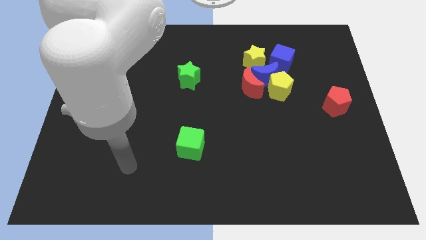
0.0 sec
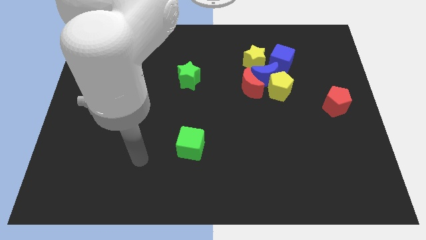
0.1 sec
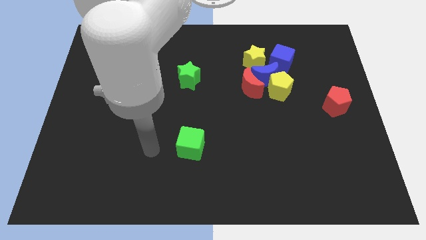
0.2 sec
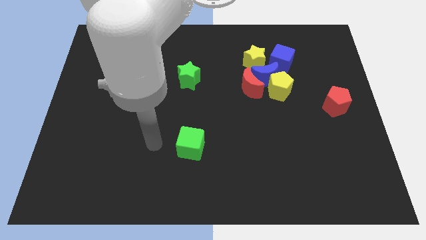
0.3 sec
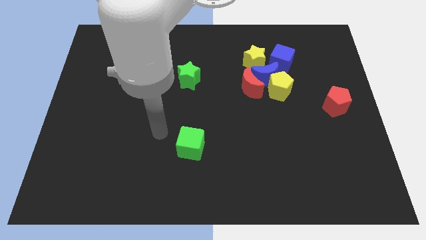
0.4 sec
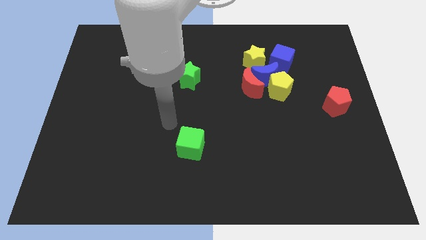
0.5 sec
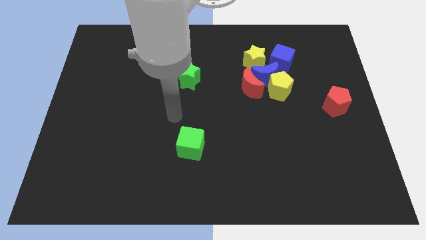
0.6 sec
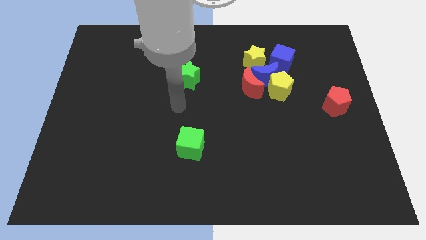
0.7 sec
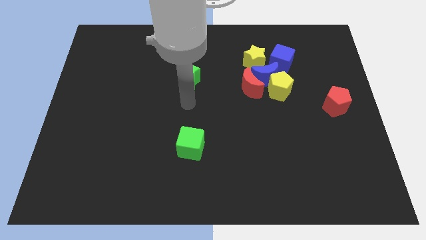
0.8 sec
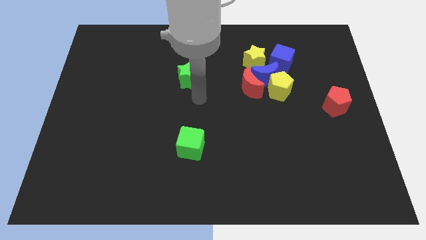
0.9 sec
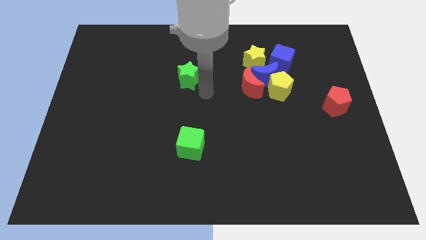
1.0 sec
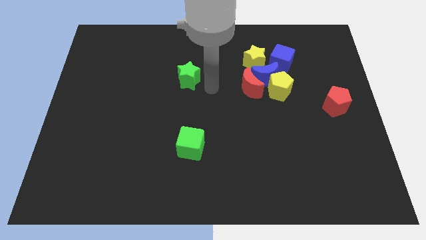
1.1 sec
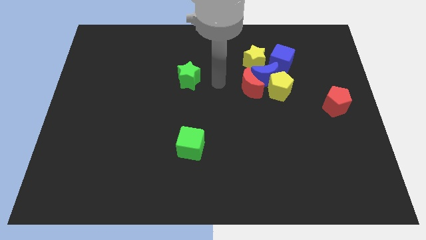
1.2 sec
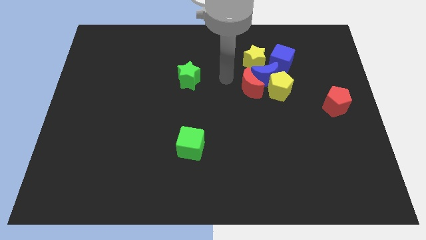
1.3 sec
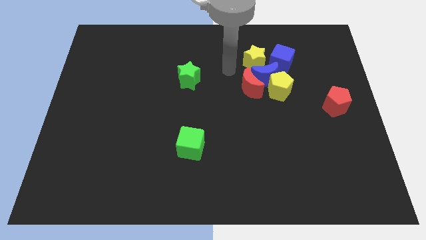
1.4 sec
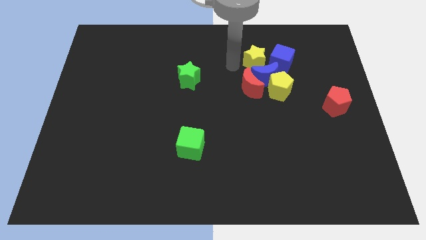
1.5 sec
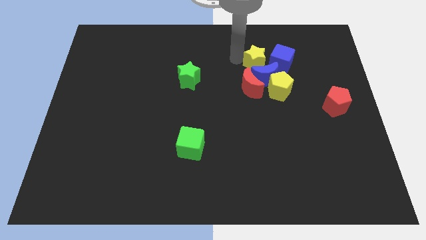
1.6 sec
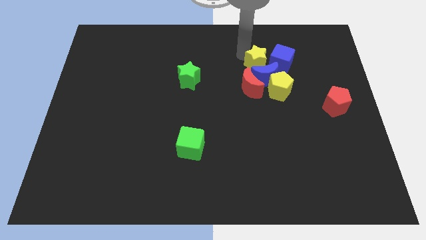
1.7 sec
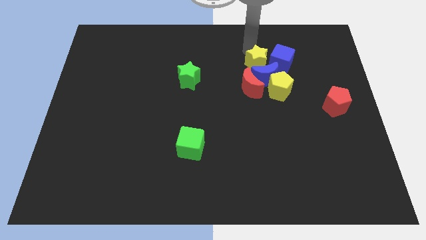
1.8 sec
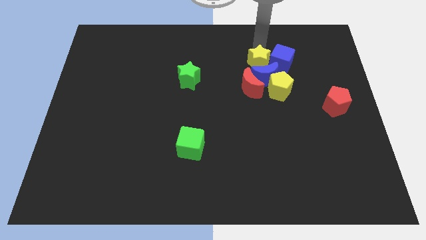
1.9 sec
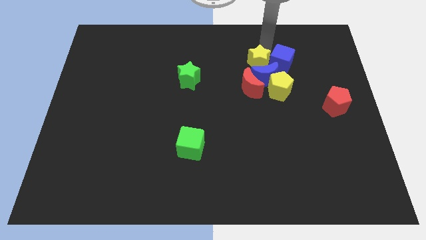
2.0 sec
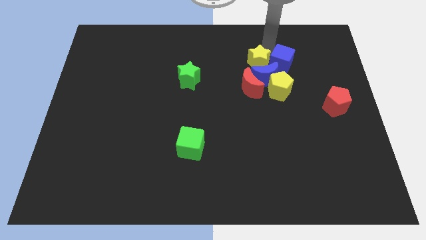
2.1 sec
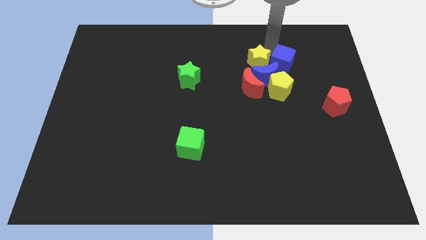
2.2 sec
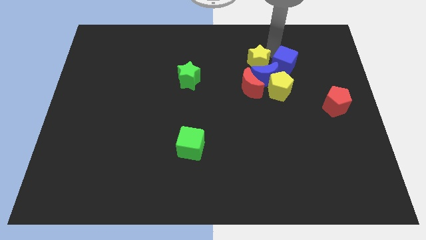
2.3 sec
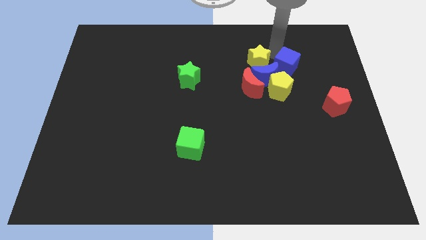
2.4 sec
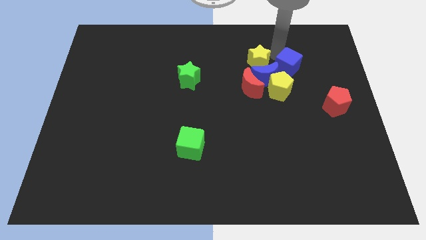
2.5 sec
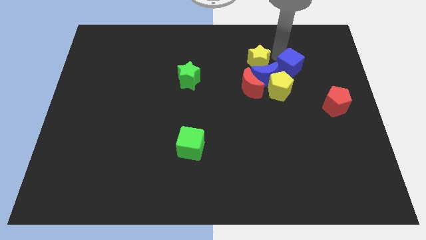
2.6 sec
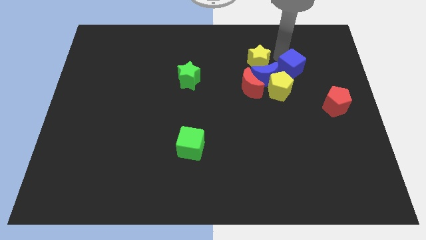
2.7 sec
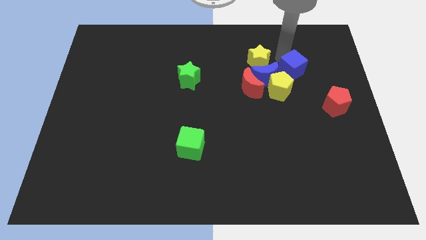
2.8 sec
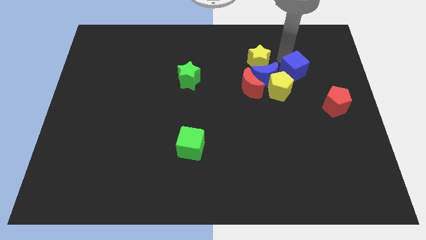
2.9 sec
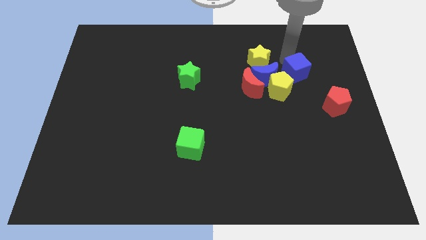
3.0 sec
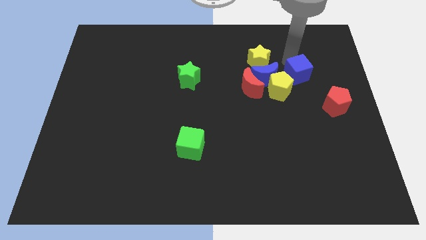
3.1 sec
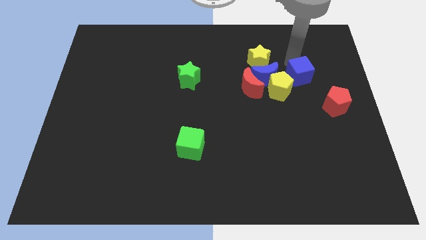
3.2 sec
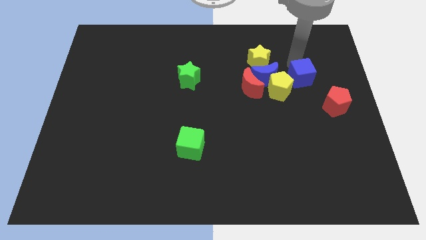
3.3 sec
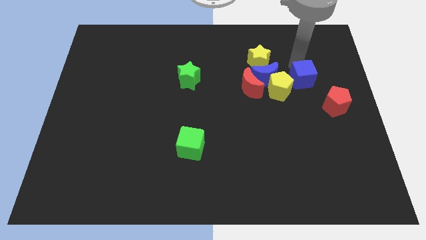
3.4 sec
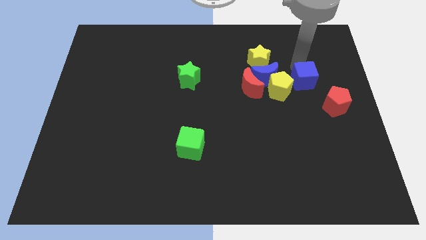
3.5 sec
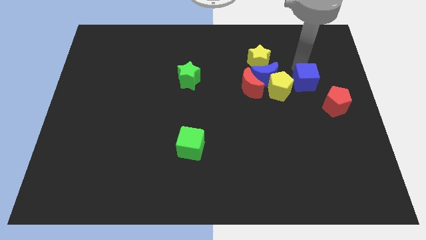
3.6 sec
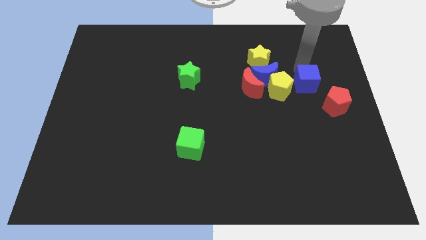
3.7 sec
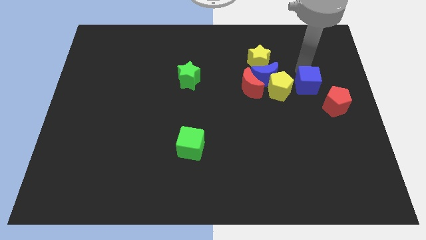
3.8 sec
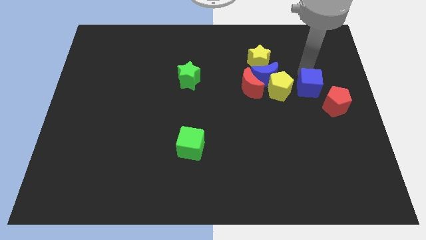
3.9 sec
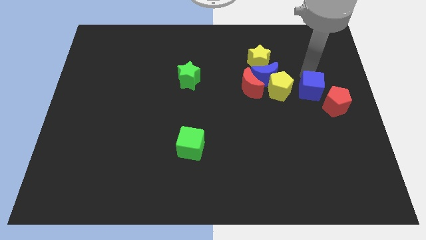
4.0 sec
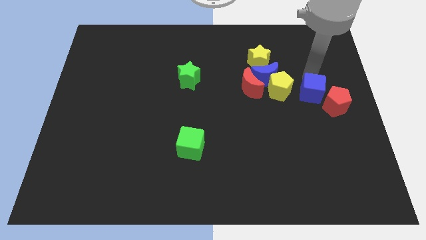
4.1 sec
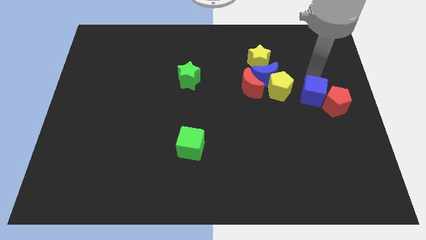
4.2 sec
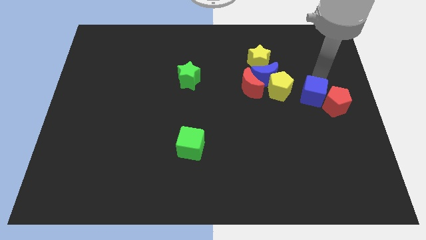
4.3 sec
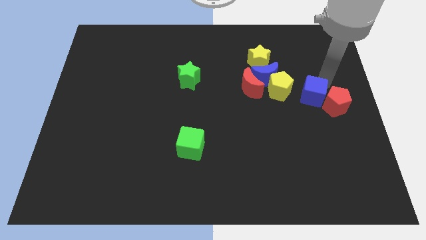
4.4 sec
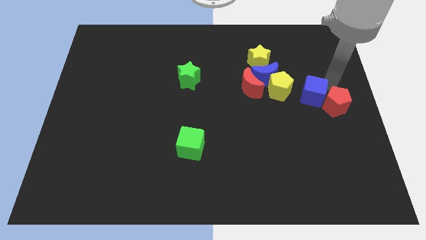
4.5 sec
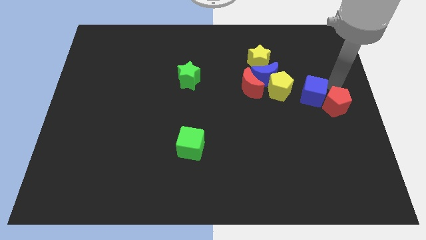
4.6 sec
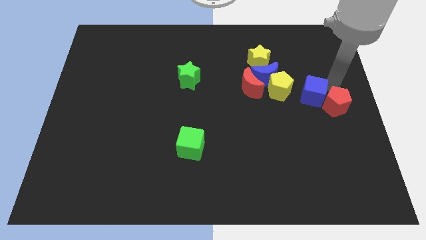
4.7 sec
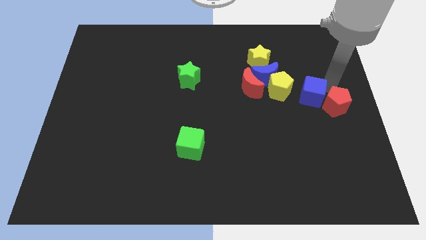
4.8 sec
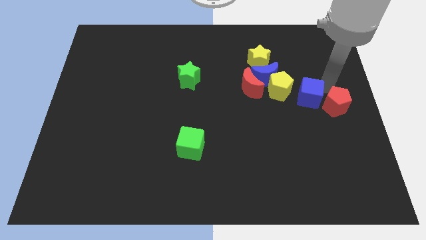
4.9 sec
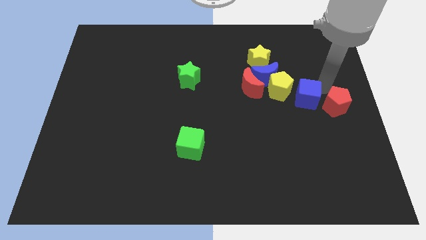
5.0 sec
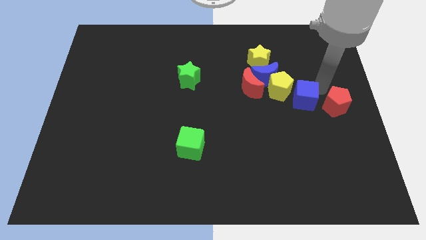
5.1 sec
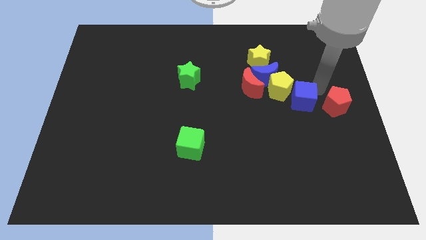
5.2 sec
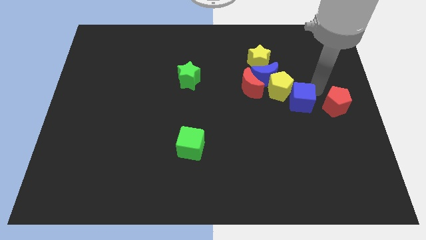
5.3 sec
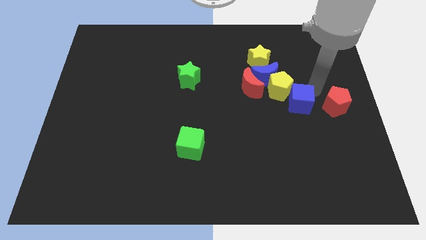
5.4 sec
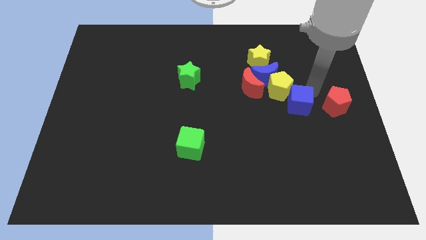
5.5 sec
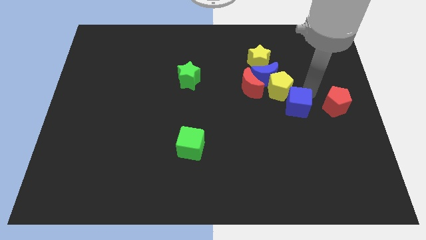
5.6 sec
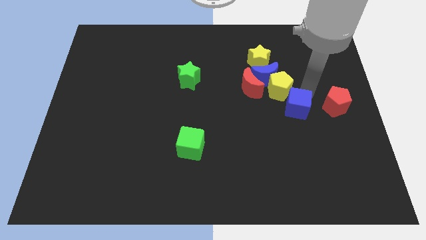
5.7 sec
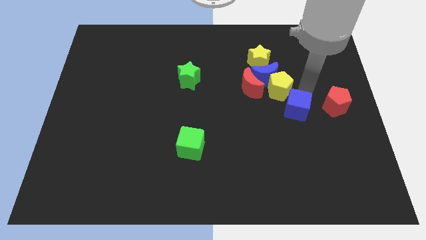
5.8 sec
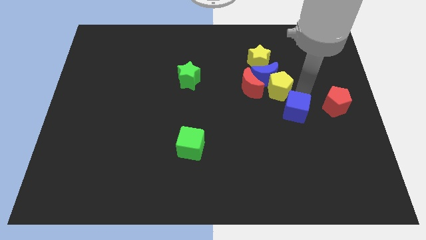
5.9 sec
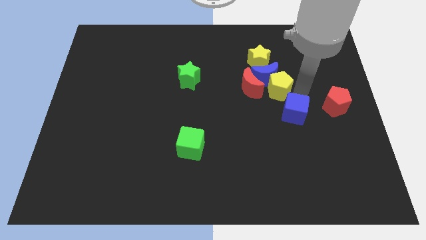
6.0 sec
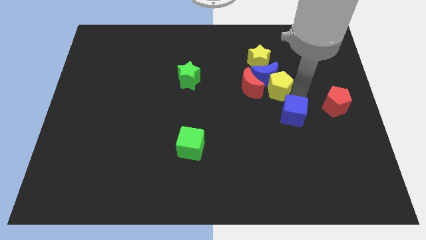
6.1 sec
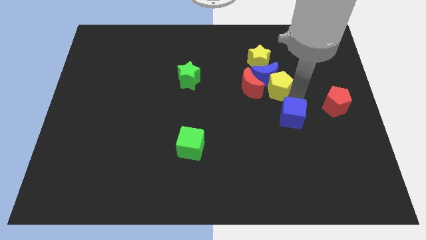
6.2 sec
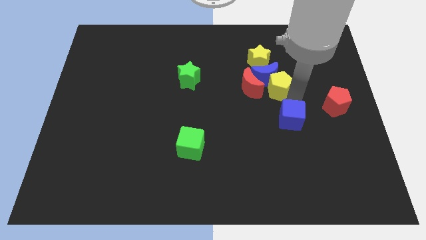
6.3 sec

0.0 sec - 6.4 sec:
put the blue cube below the blue moon
